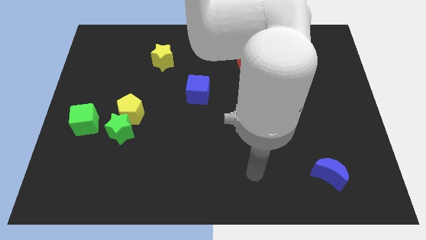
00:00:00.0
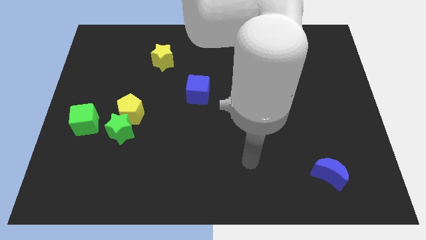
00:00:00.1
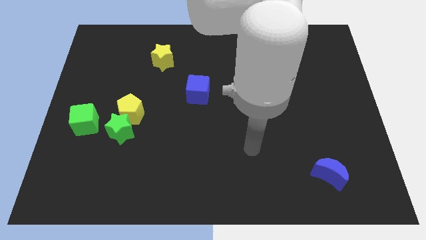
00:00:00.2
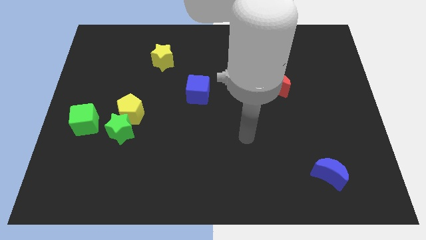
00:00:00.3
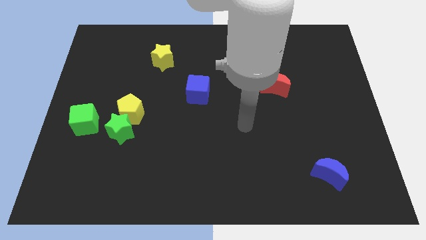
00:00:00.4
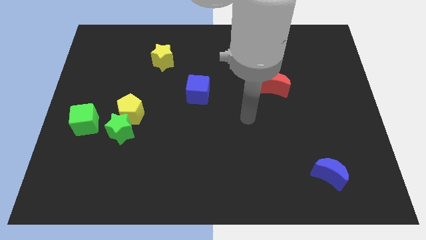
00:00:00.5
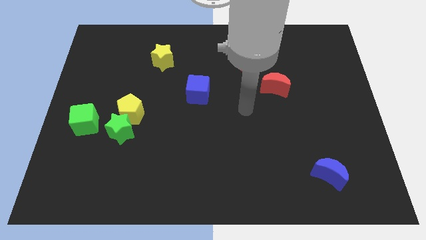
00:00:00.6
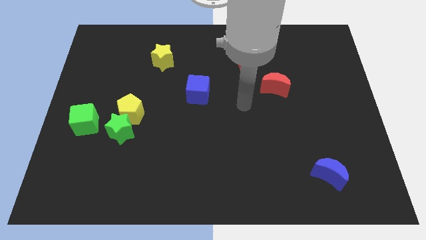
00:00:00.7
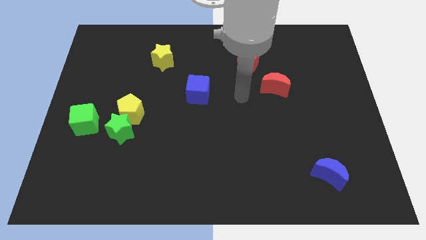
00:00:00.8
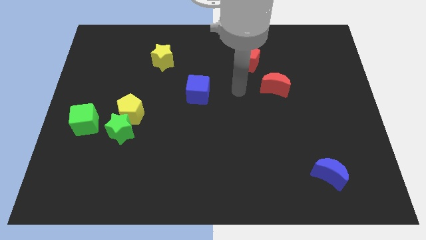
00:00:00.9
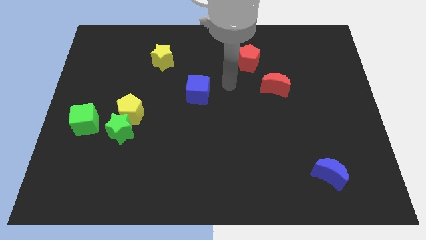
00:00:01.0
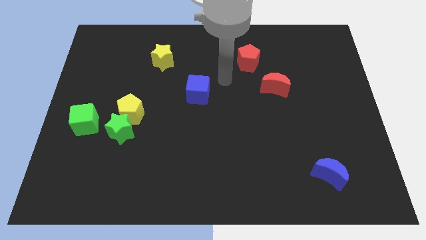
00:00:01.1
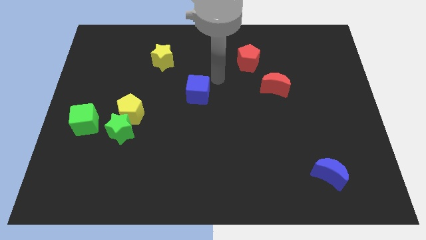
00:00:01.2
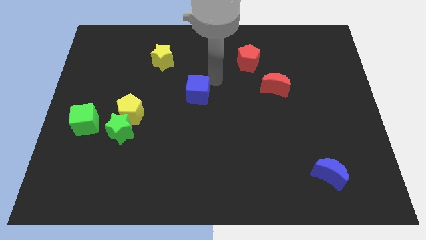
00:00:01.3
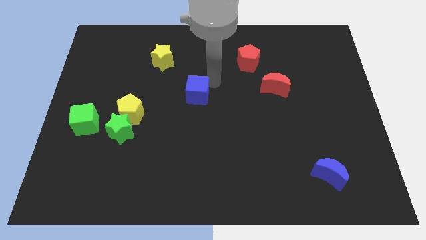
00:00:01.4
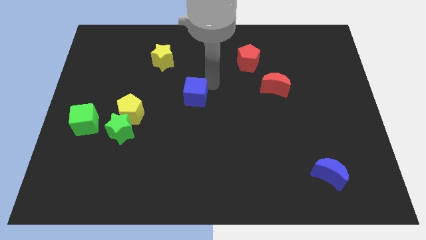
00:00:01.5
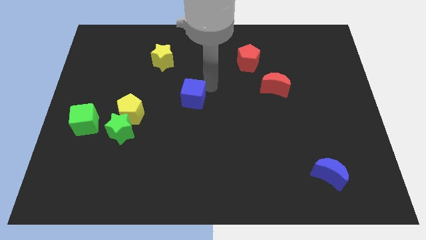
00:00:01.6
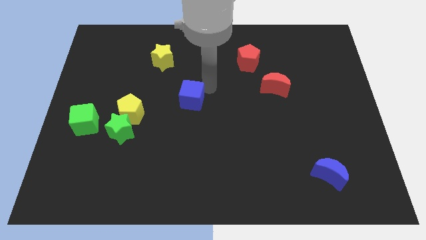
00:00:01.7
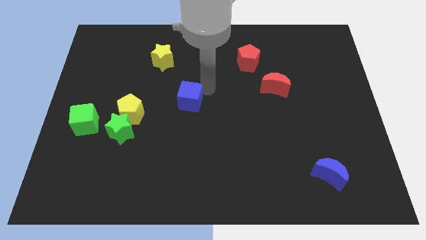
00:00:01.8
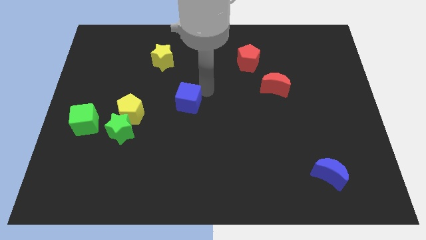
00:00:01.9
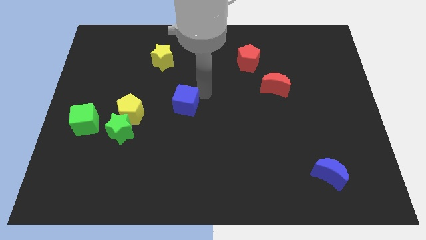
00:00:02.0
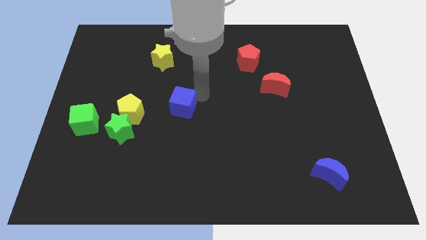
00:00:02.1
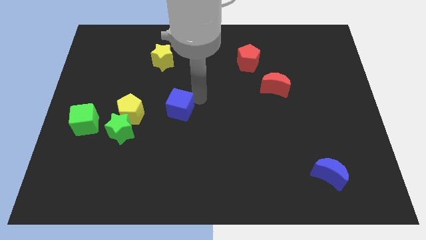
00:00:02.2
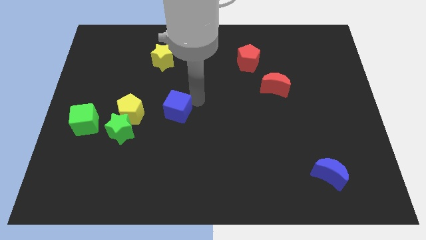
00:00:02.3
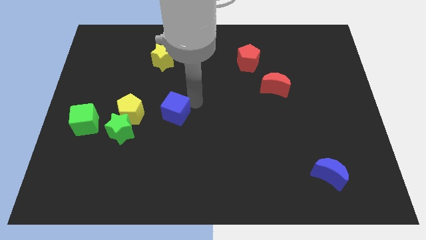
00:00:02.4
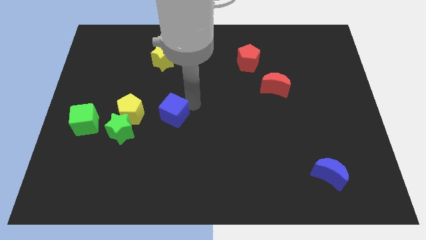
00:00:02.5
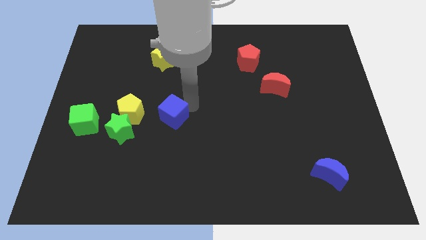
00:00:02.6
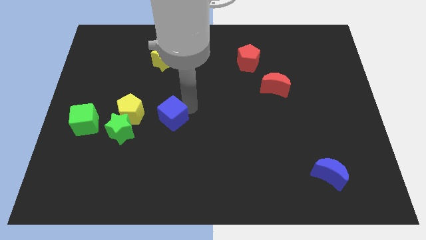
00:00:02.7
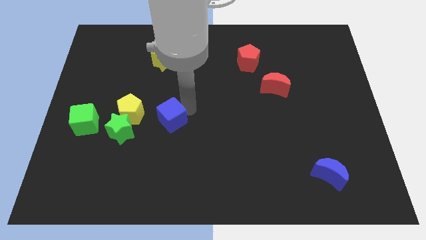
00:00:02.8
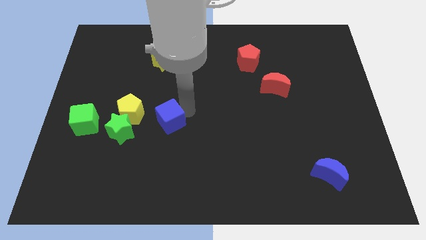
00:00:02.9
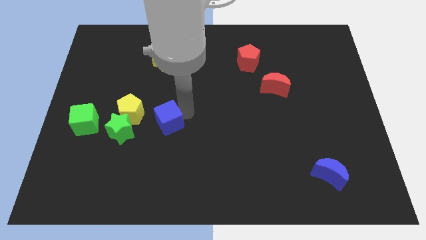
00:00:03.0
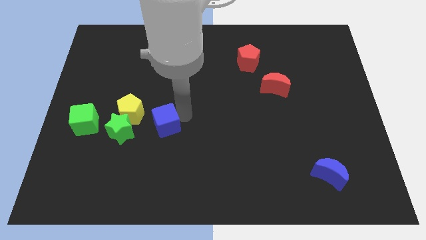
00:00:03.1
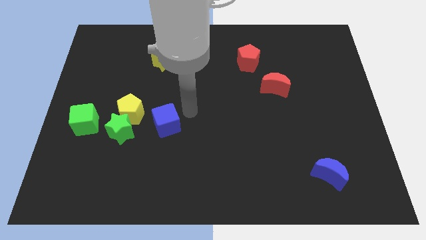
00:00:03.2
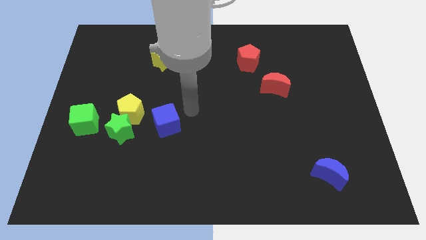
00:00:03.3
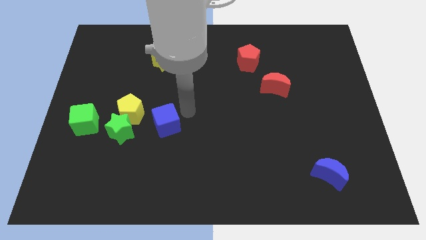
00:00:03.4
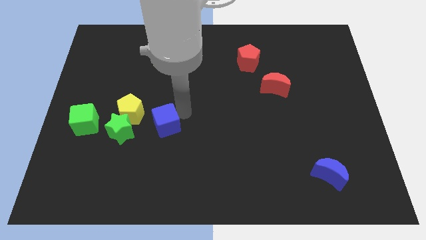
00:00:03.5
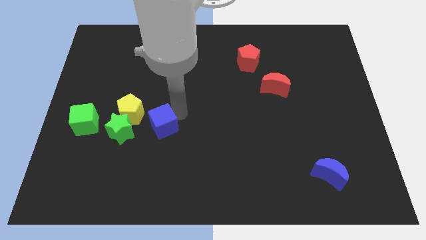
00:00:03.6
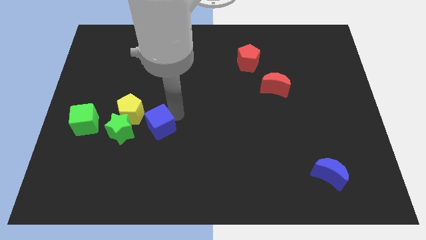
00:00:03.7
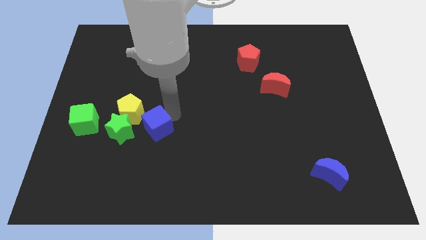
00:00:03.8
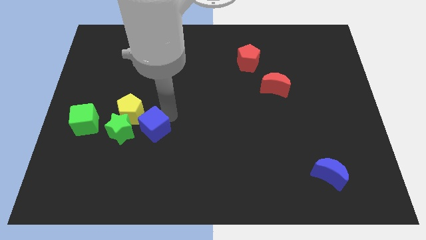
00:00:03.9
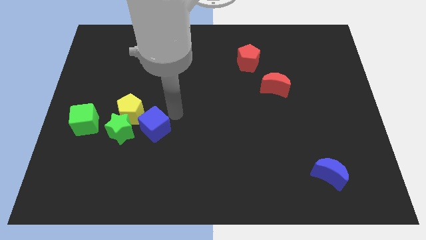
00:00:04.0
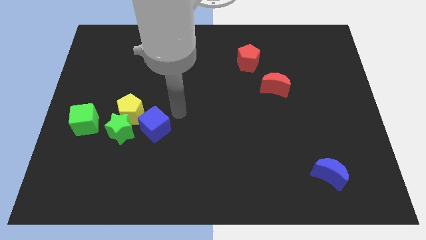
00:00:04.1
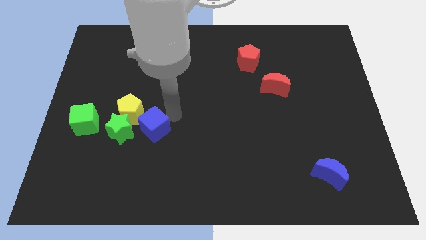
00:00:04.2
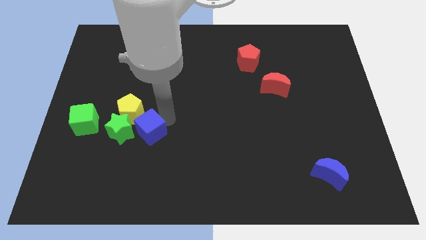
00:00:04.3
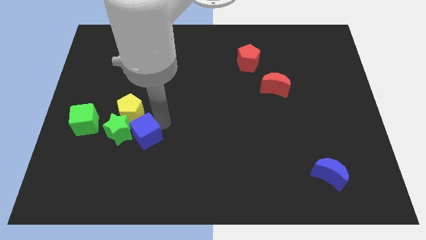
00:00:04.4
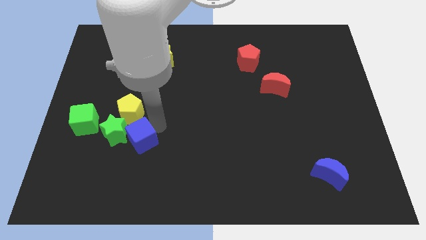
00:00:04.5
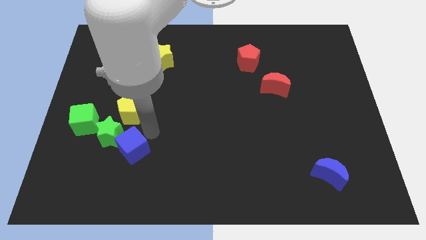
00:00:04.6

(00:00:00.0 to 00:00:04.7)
push the blue cube down and left diagonally

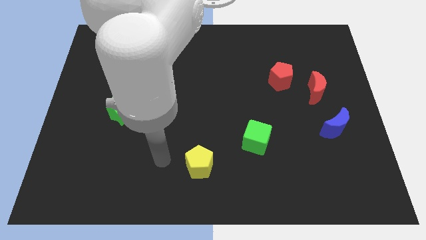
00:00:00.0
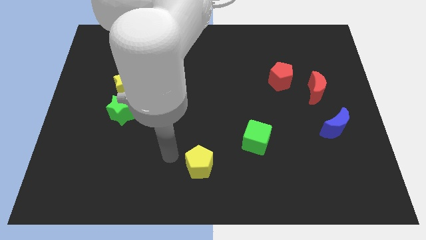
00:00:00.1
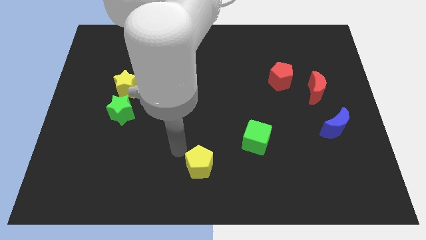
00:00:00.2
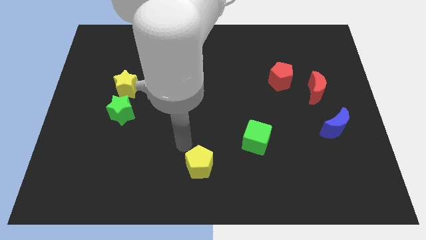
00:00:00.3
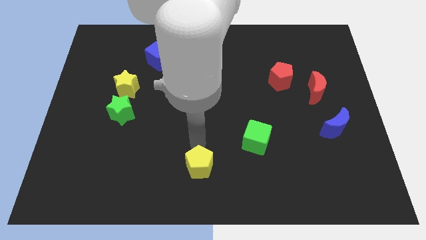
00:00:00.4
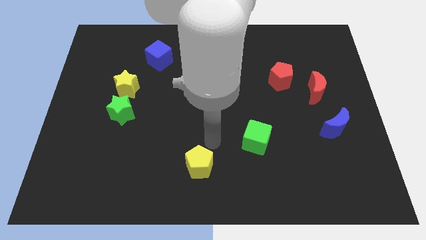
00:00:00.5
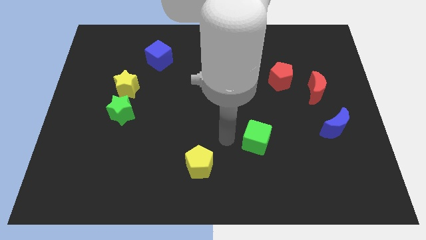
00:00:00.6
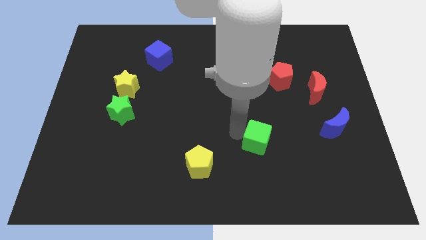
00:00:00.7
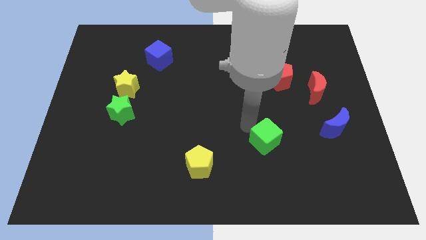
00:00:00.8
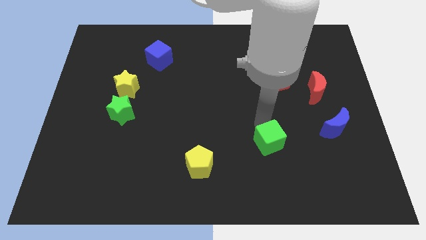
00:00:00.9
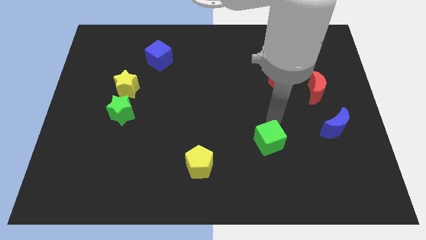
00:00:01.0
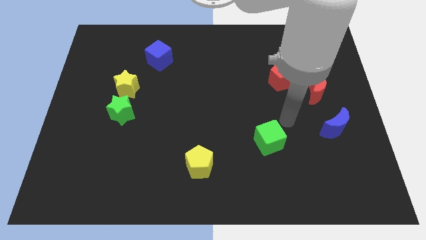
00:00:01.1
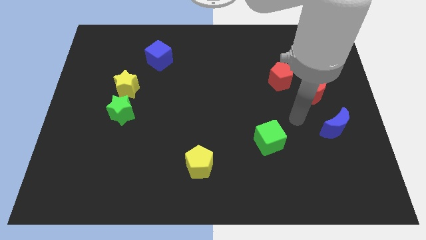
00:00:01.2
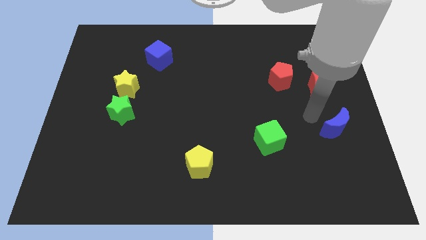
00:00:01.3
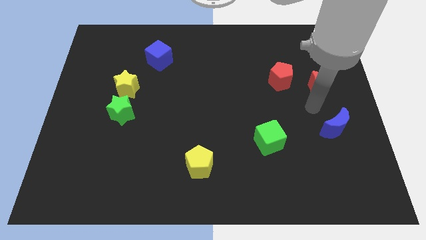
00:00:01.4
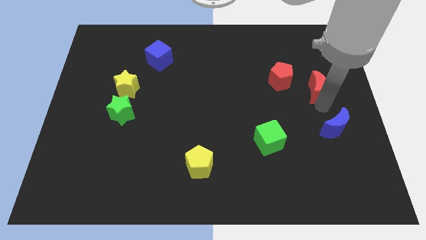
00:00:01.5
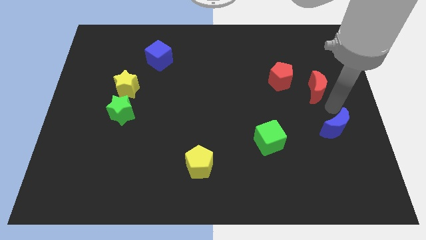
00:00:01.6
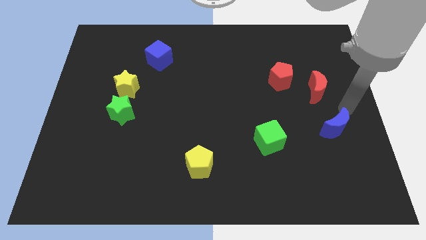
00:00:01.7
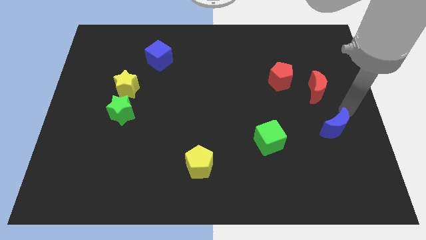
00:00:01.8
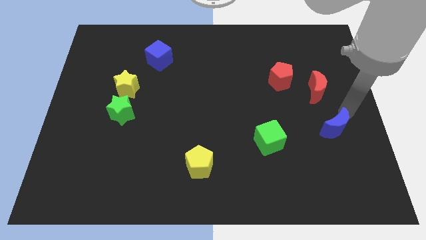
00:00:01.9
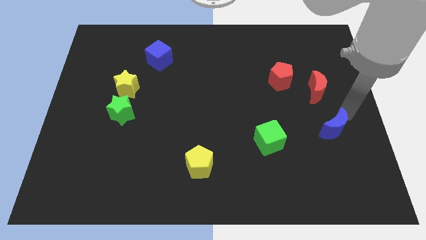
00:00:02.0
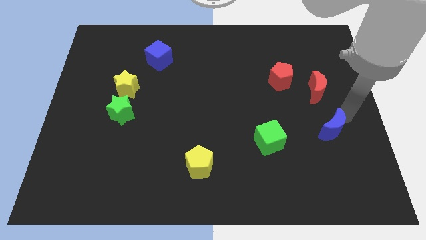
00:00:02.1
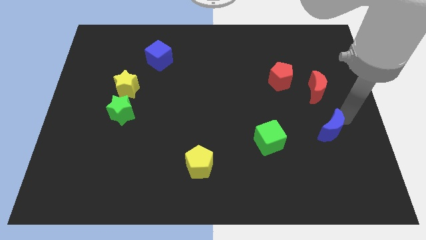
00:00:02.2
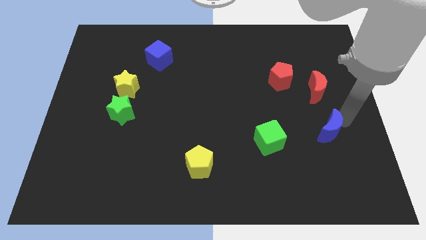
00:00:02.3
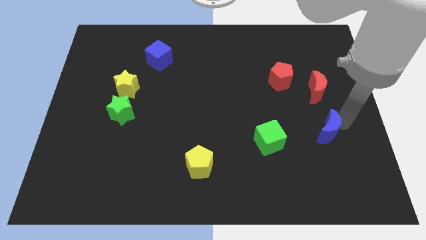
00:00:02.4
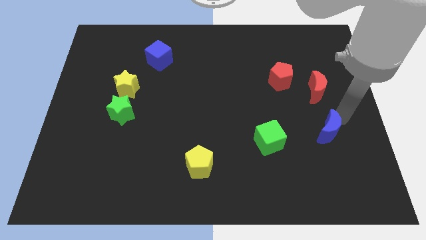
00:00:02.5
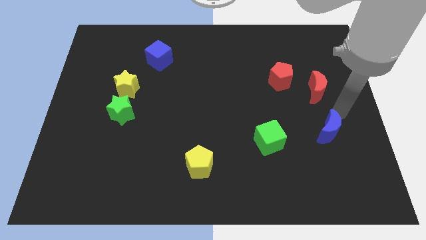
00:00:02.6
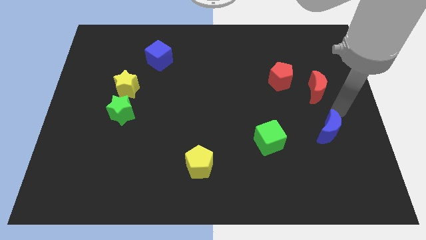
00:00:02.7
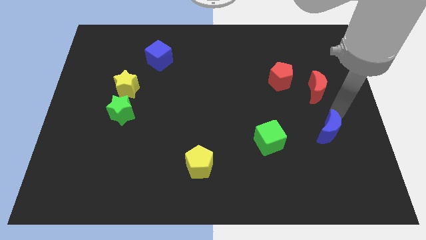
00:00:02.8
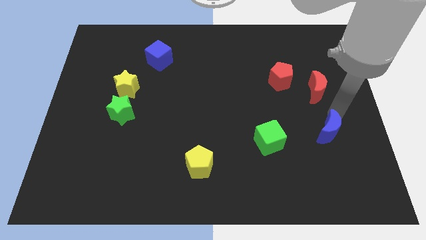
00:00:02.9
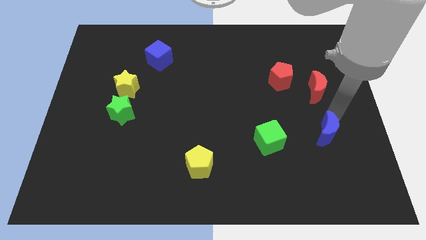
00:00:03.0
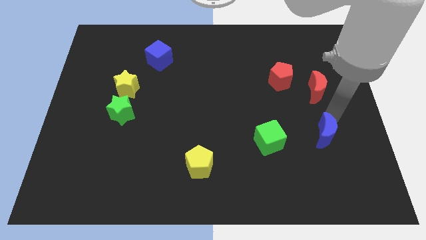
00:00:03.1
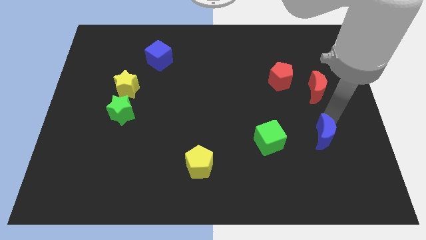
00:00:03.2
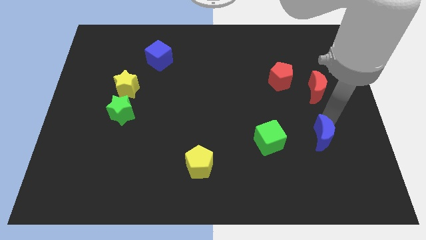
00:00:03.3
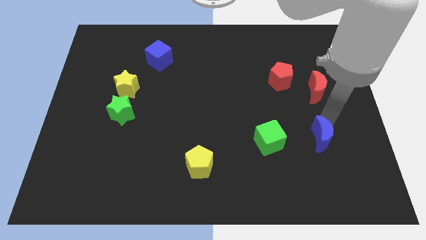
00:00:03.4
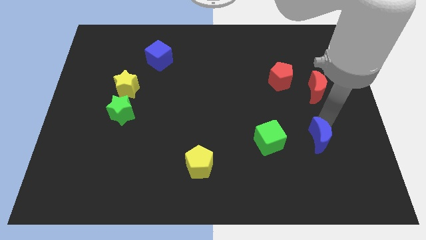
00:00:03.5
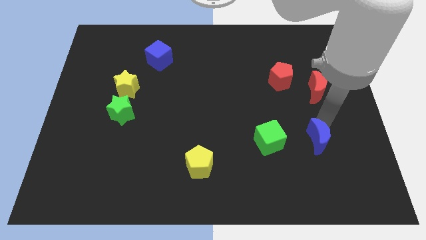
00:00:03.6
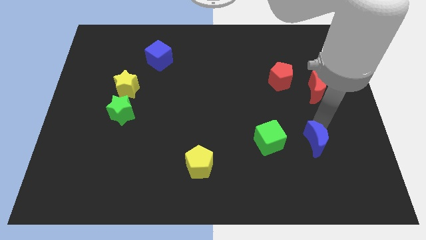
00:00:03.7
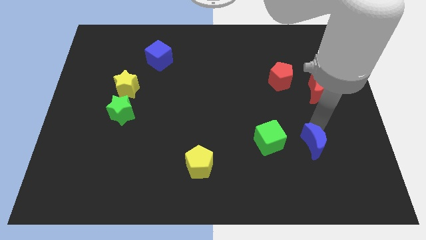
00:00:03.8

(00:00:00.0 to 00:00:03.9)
slide the blue moon downwards and to the left a little bit
